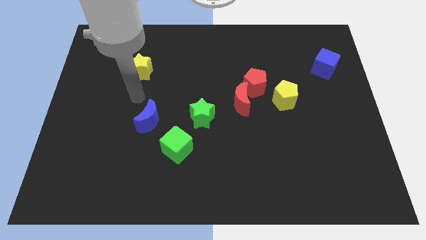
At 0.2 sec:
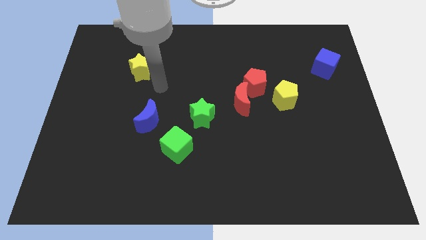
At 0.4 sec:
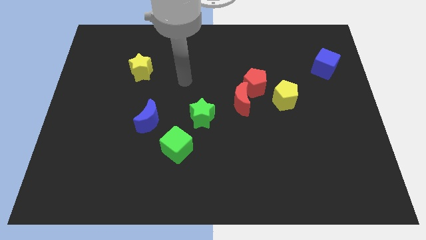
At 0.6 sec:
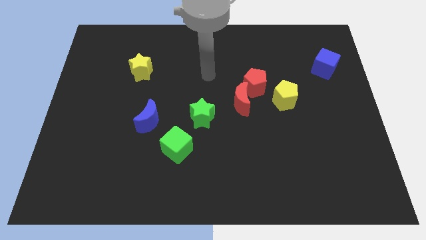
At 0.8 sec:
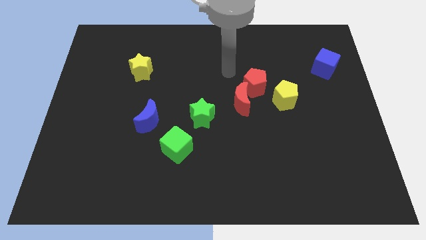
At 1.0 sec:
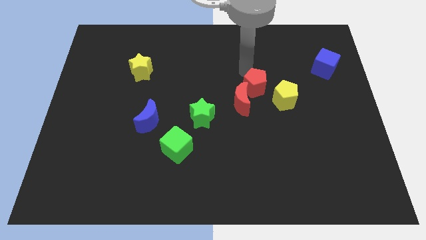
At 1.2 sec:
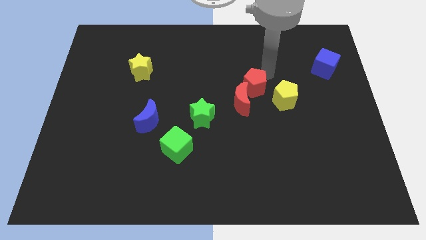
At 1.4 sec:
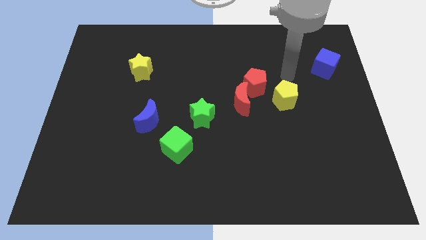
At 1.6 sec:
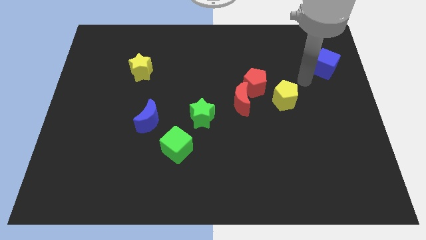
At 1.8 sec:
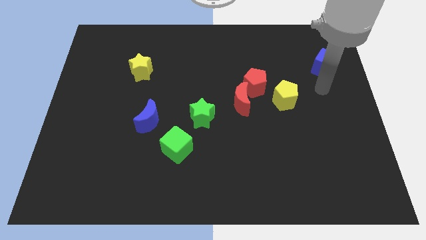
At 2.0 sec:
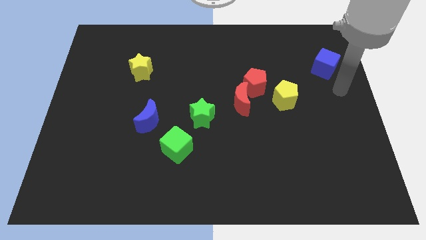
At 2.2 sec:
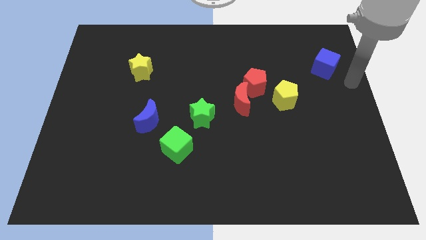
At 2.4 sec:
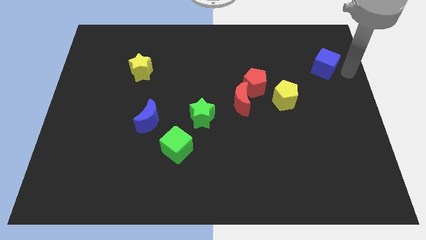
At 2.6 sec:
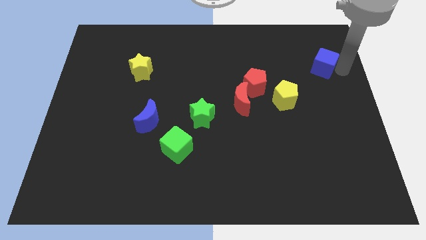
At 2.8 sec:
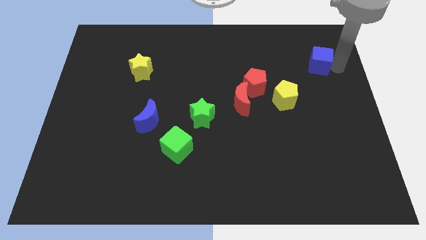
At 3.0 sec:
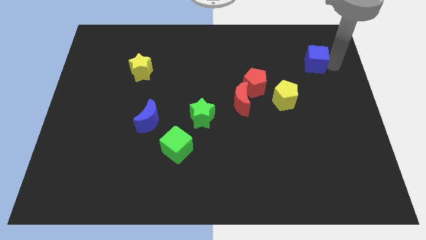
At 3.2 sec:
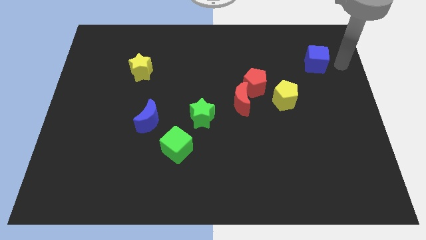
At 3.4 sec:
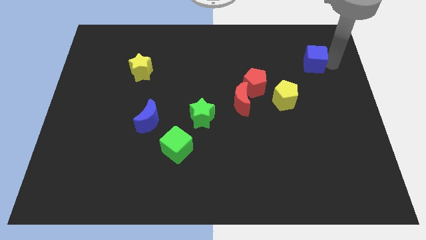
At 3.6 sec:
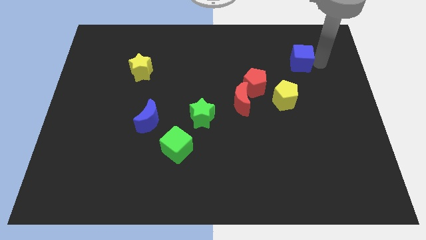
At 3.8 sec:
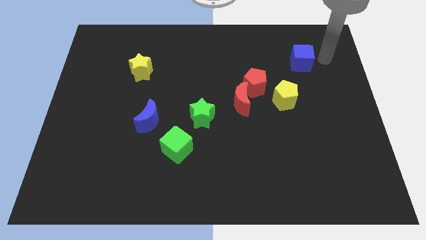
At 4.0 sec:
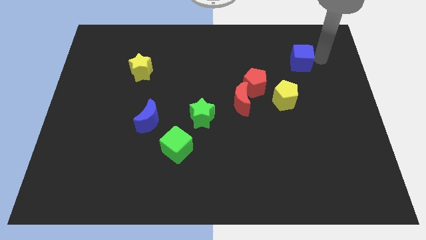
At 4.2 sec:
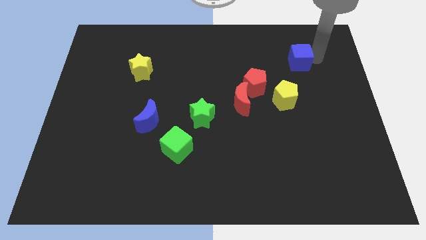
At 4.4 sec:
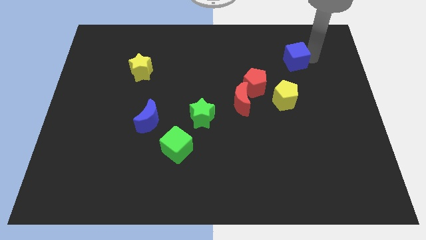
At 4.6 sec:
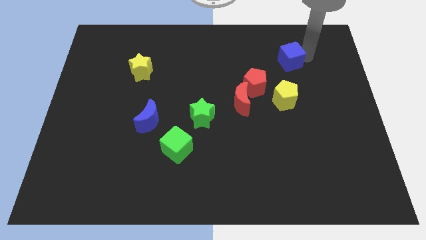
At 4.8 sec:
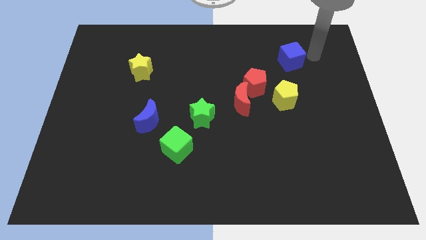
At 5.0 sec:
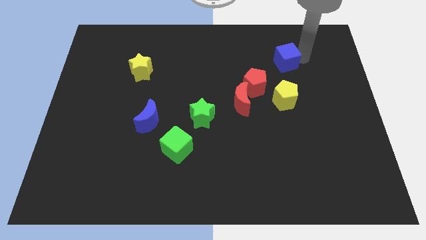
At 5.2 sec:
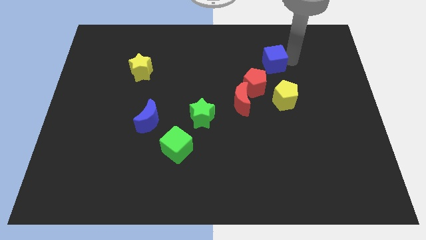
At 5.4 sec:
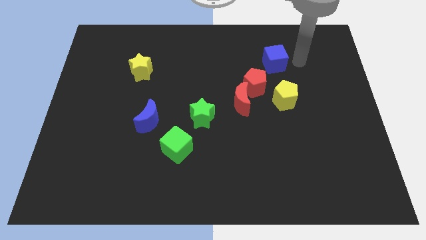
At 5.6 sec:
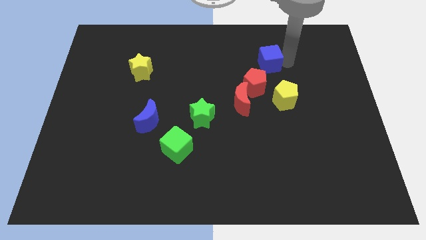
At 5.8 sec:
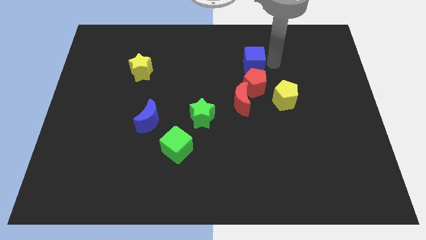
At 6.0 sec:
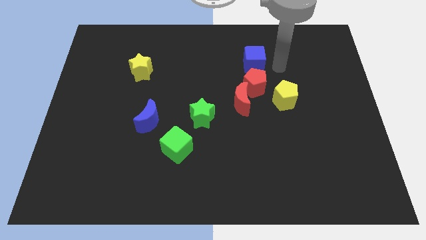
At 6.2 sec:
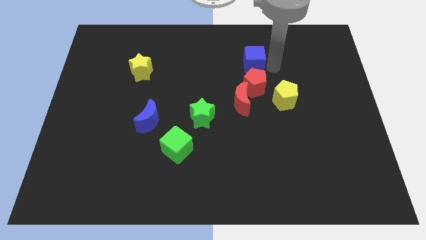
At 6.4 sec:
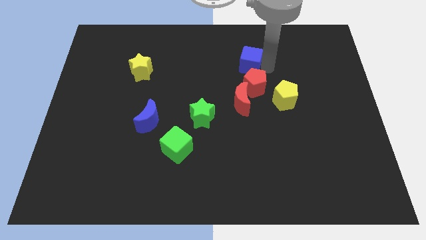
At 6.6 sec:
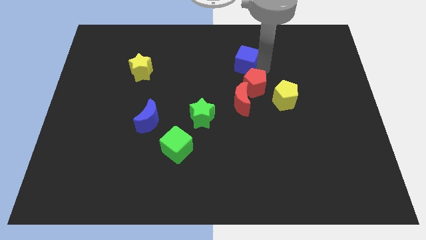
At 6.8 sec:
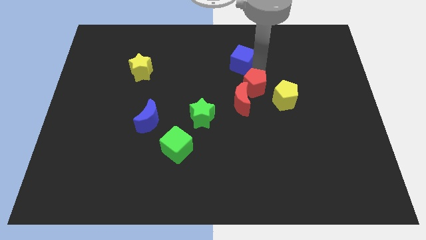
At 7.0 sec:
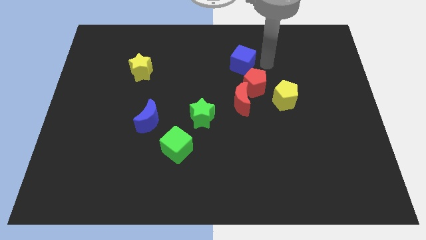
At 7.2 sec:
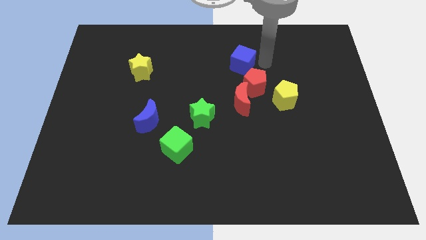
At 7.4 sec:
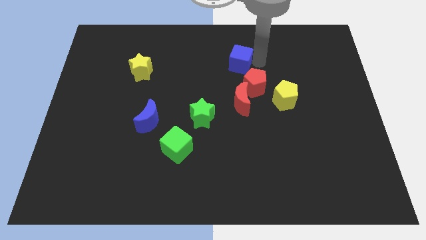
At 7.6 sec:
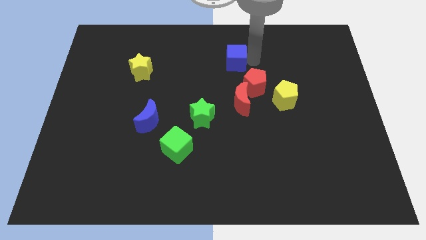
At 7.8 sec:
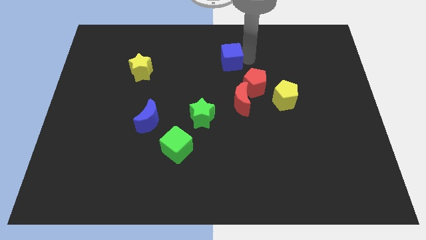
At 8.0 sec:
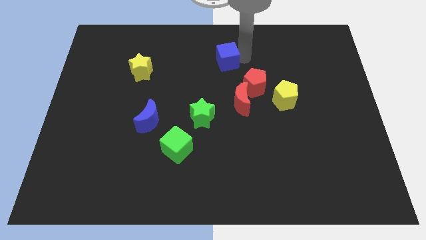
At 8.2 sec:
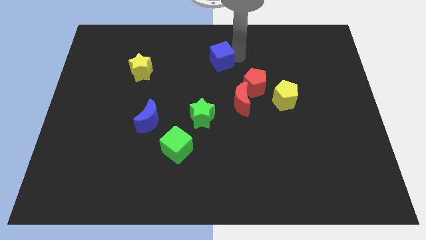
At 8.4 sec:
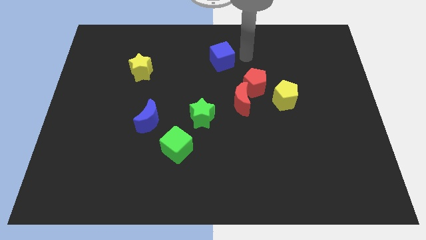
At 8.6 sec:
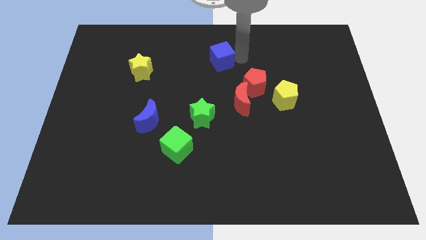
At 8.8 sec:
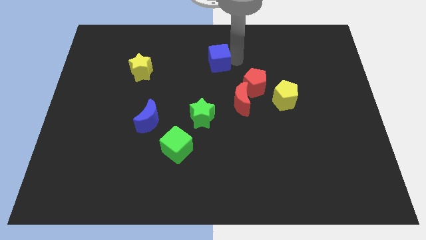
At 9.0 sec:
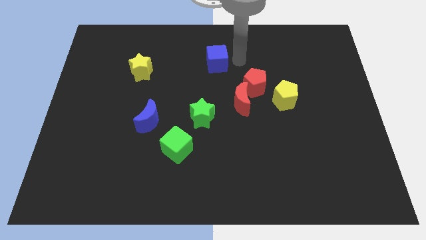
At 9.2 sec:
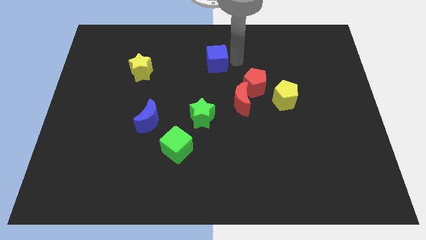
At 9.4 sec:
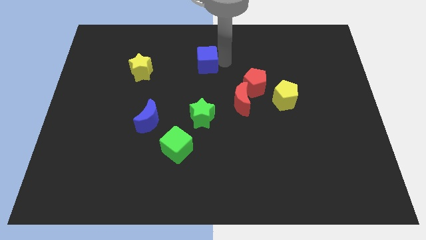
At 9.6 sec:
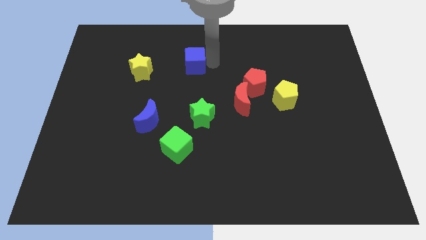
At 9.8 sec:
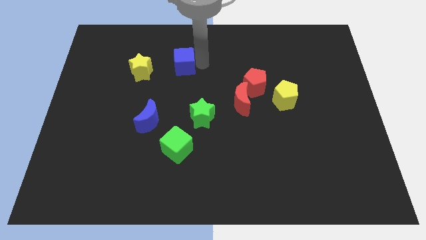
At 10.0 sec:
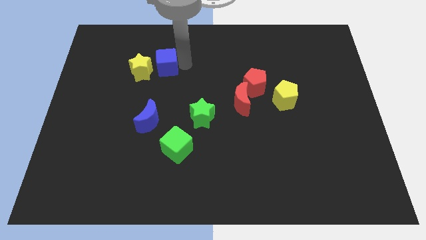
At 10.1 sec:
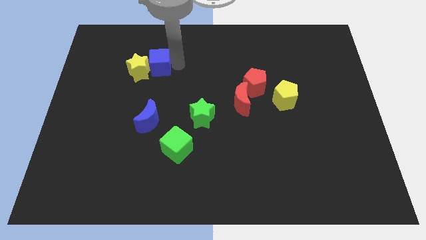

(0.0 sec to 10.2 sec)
slide the blue cube close to the yellow star

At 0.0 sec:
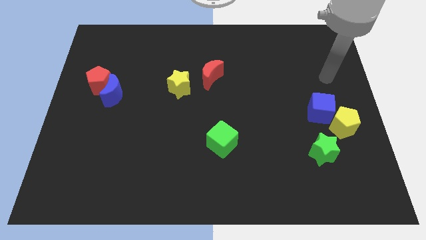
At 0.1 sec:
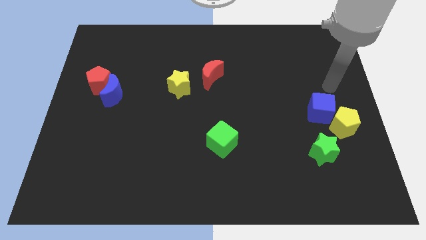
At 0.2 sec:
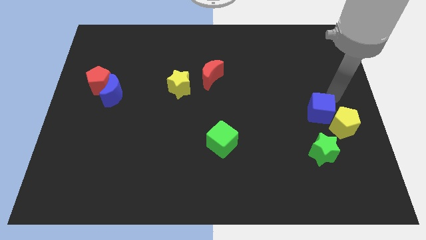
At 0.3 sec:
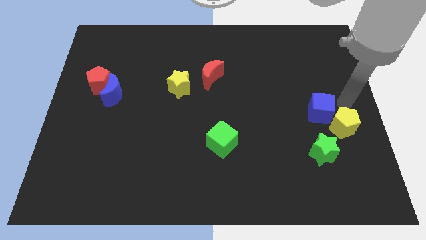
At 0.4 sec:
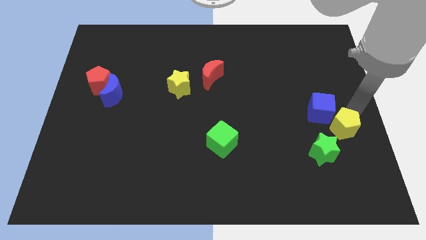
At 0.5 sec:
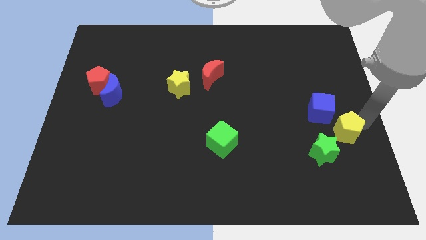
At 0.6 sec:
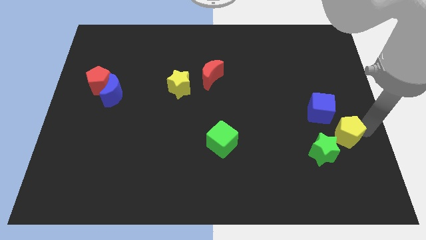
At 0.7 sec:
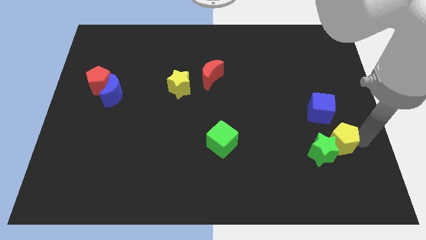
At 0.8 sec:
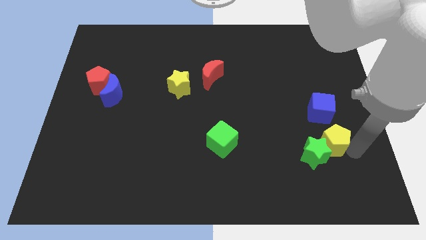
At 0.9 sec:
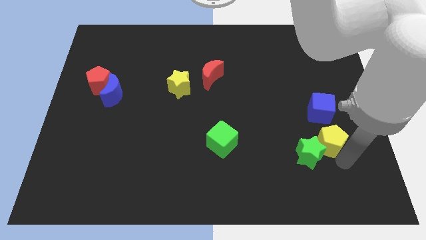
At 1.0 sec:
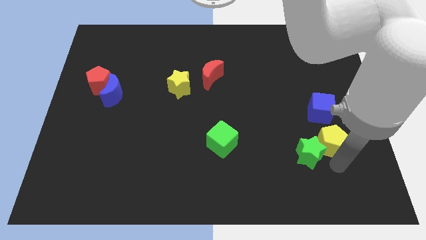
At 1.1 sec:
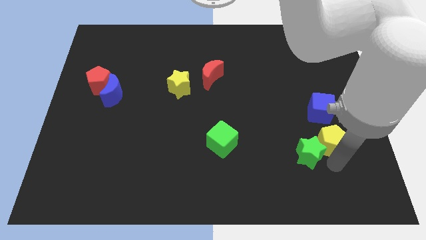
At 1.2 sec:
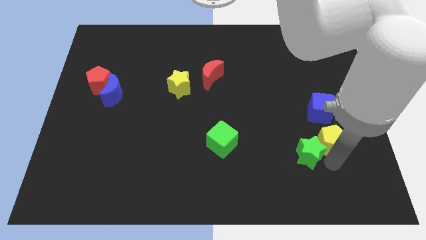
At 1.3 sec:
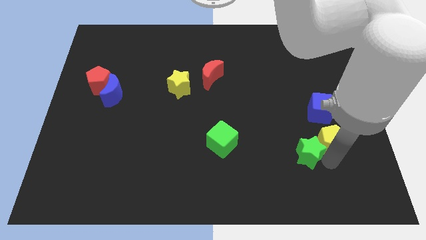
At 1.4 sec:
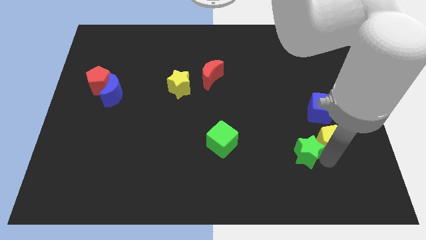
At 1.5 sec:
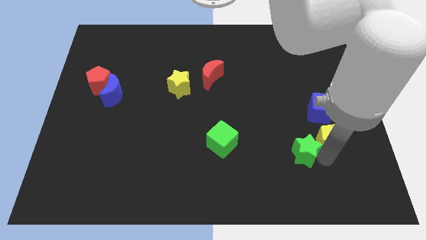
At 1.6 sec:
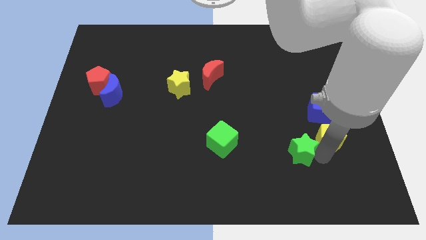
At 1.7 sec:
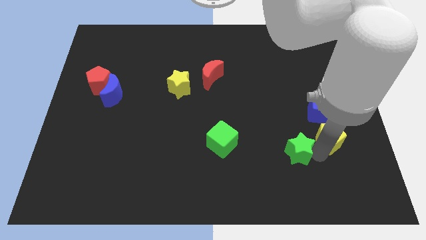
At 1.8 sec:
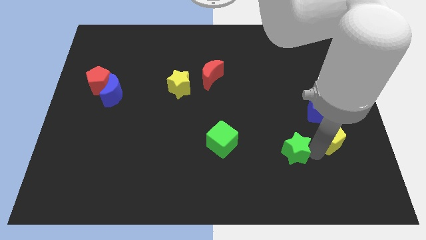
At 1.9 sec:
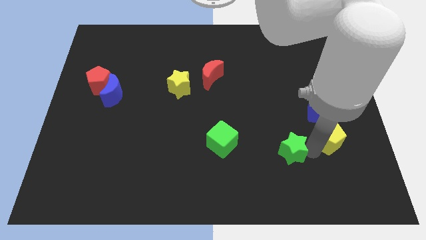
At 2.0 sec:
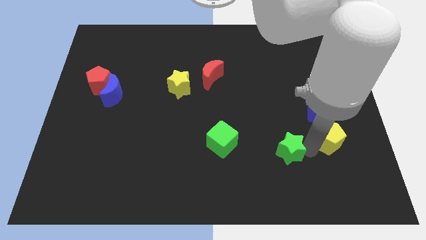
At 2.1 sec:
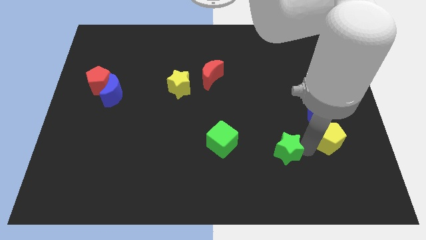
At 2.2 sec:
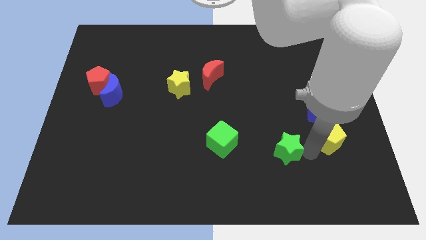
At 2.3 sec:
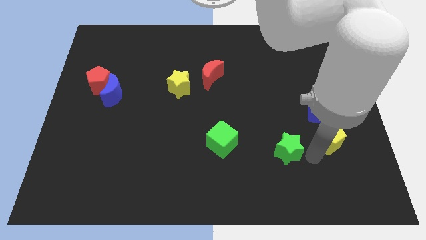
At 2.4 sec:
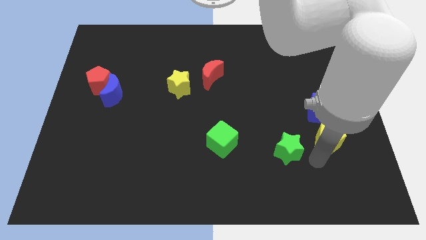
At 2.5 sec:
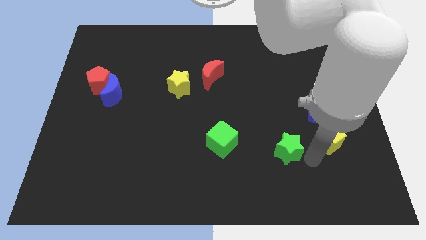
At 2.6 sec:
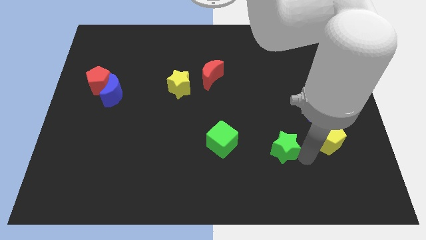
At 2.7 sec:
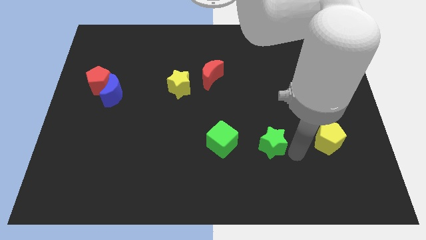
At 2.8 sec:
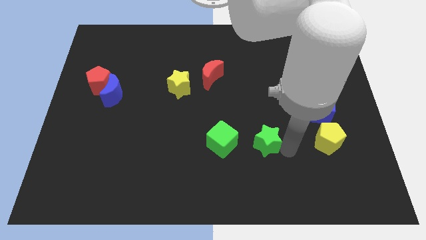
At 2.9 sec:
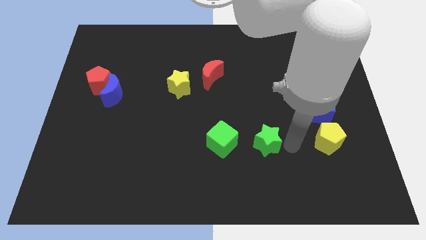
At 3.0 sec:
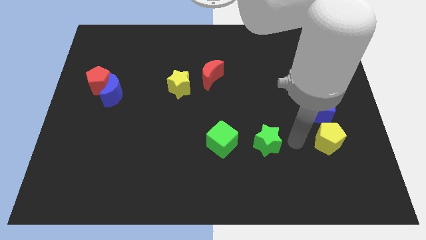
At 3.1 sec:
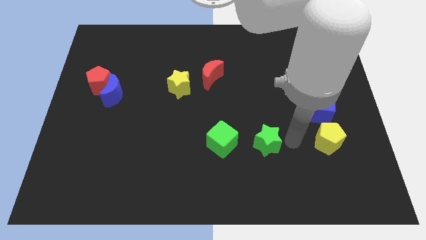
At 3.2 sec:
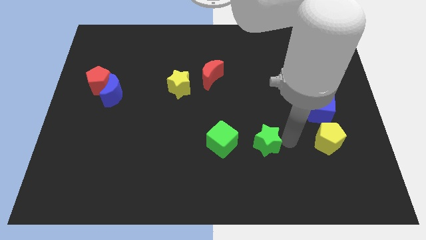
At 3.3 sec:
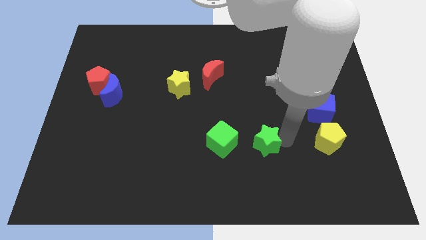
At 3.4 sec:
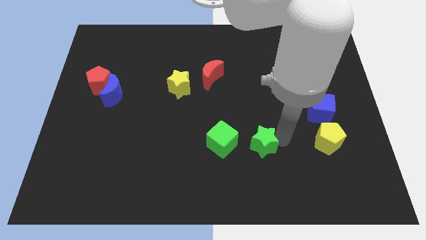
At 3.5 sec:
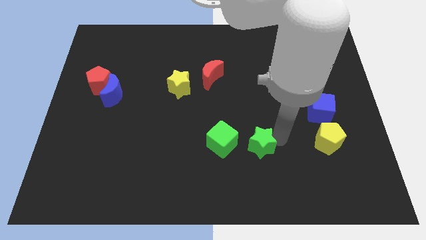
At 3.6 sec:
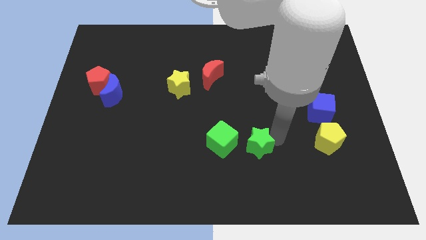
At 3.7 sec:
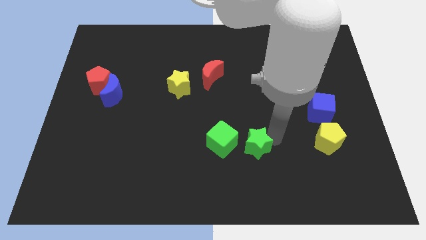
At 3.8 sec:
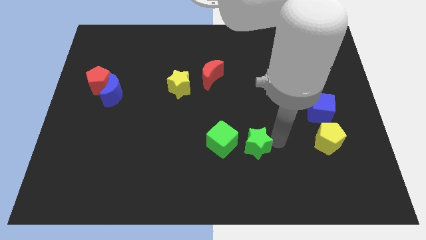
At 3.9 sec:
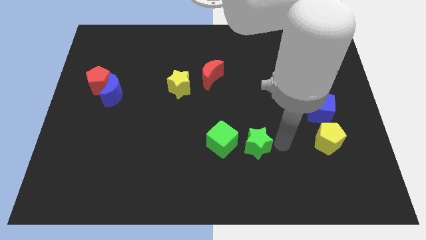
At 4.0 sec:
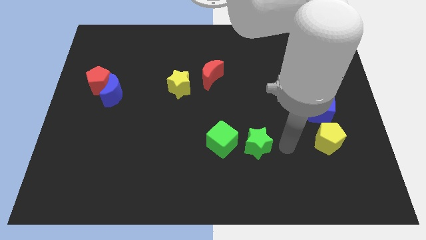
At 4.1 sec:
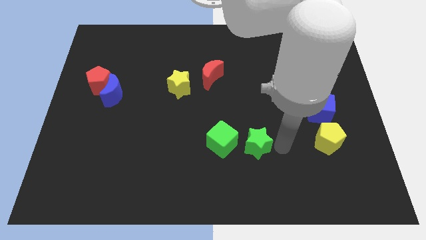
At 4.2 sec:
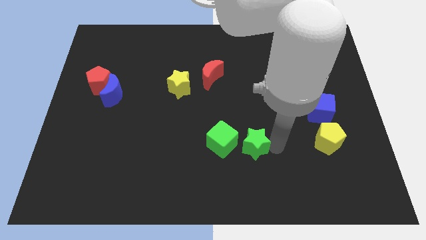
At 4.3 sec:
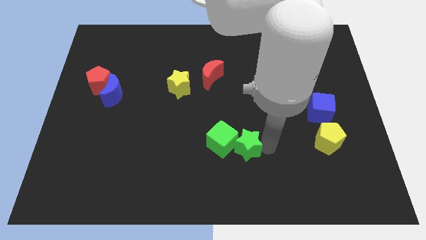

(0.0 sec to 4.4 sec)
slide the green star close to the green cube
